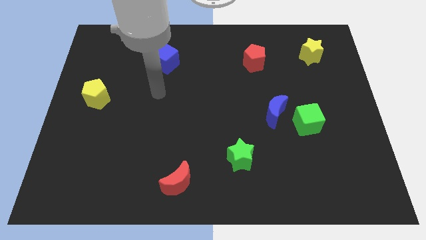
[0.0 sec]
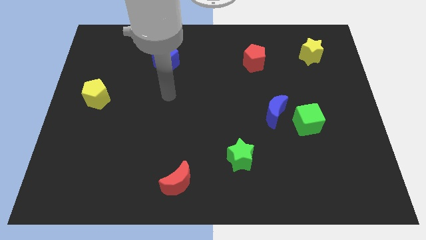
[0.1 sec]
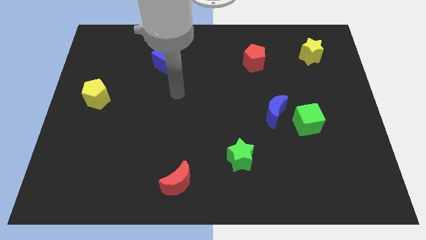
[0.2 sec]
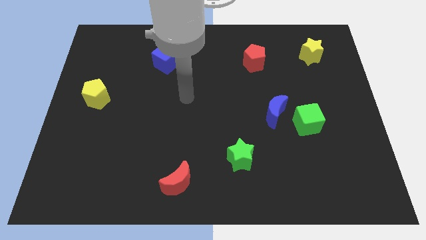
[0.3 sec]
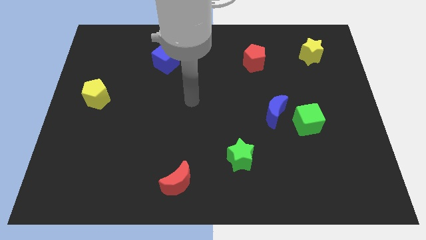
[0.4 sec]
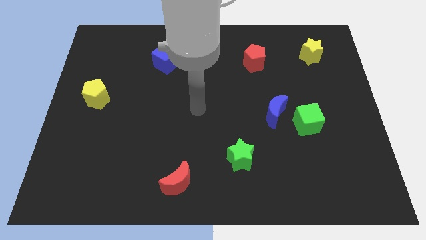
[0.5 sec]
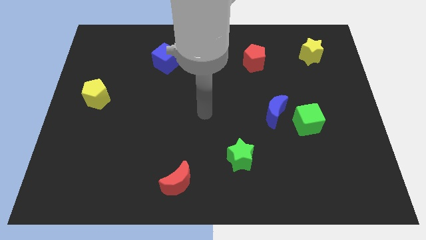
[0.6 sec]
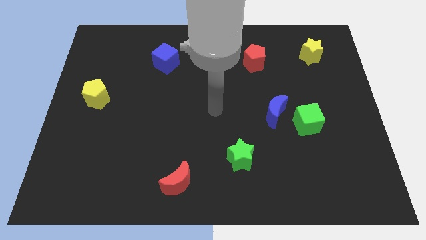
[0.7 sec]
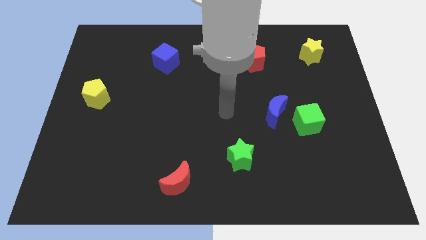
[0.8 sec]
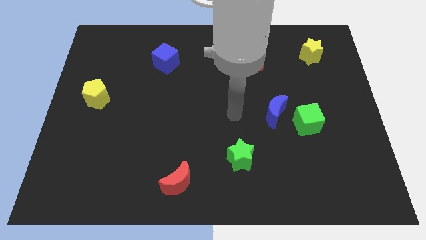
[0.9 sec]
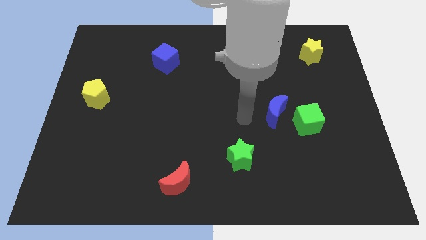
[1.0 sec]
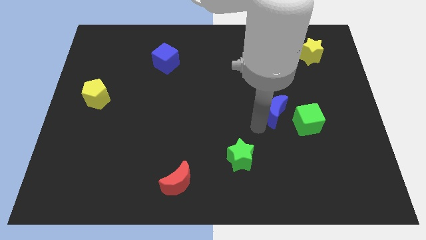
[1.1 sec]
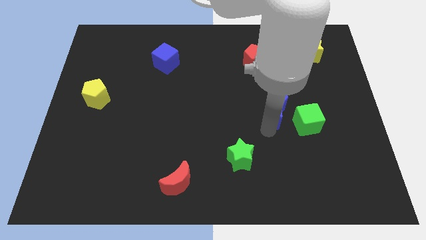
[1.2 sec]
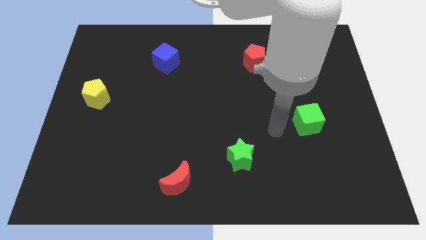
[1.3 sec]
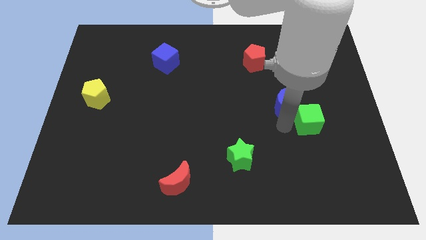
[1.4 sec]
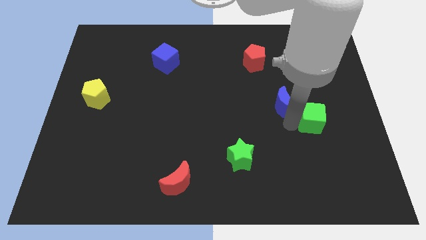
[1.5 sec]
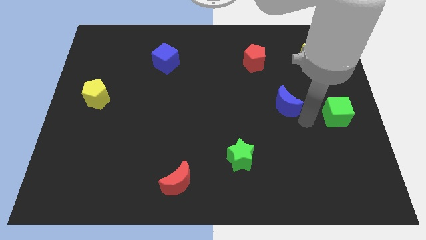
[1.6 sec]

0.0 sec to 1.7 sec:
separate the blue moon from the green cube

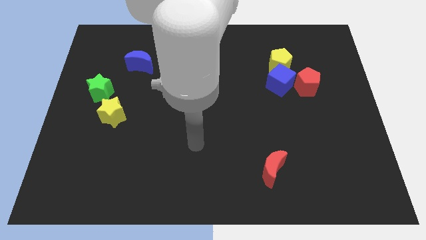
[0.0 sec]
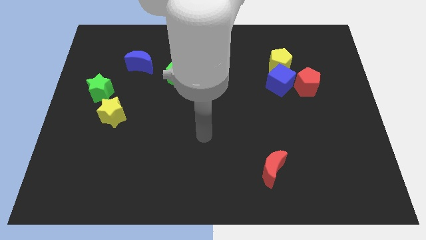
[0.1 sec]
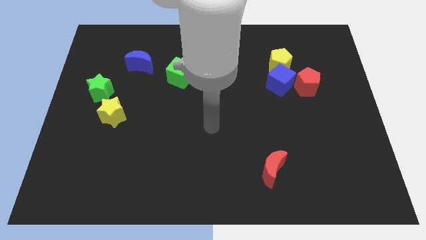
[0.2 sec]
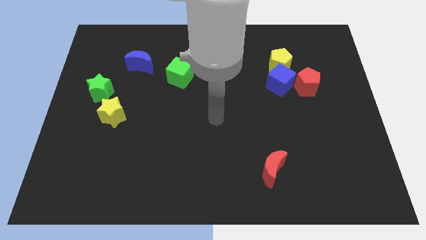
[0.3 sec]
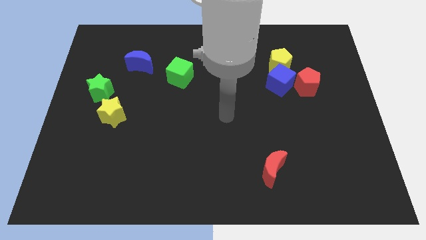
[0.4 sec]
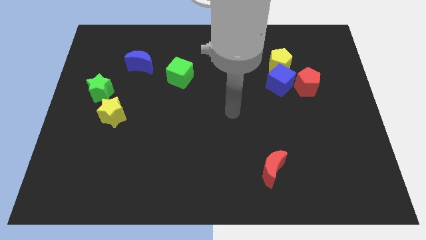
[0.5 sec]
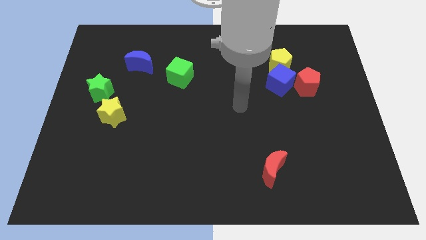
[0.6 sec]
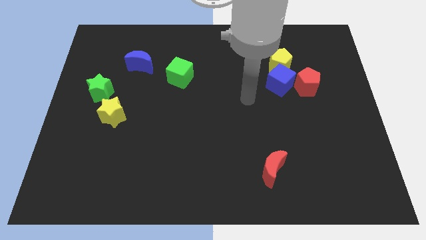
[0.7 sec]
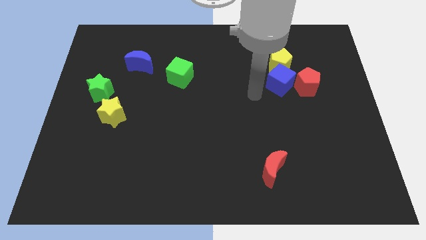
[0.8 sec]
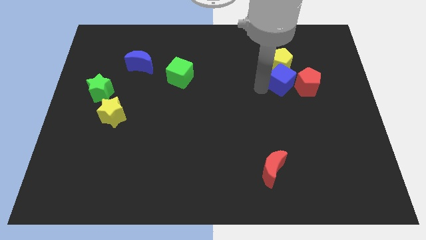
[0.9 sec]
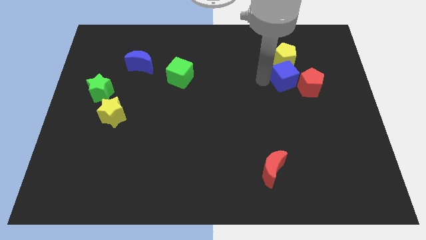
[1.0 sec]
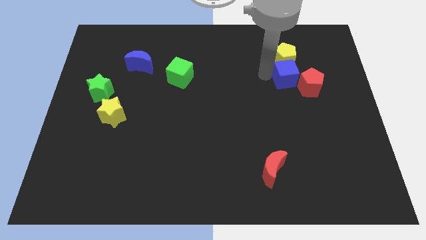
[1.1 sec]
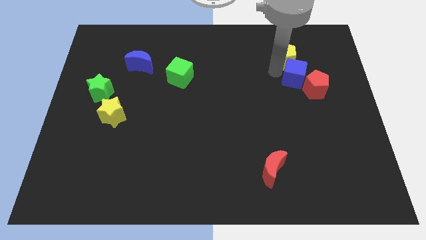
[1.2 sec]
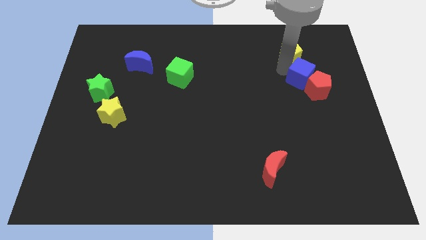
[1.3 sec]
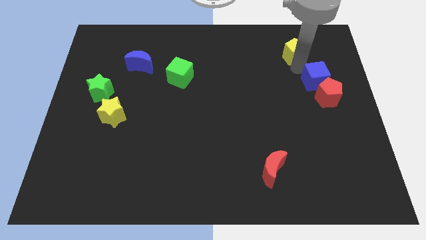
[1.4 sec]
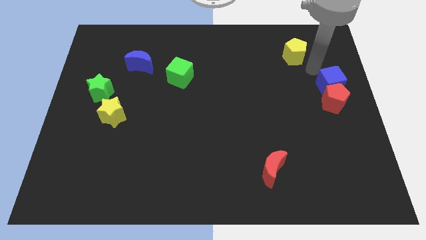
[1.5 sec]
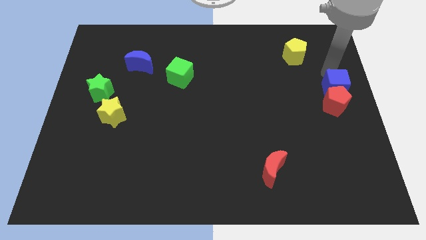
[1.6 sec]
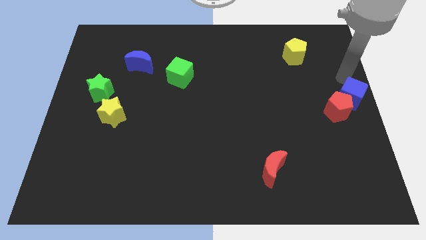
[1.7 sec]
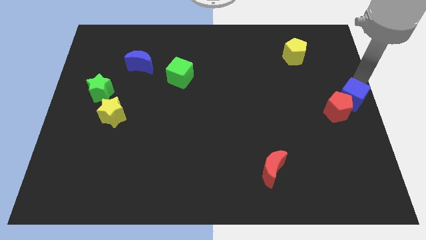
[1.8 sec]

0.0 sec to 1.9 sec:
pull the blue cube apart from the yellow pentagon and red pentagon

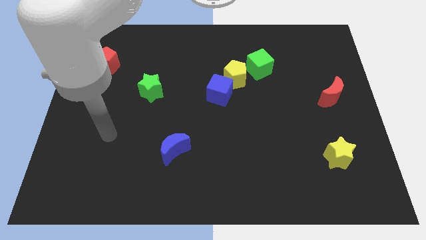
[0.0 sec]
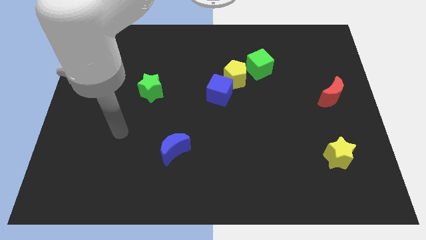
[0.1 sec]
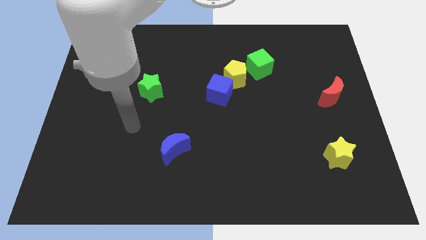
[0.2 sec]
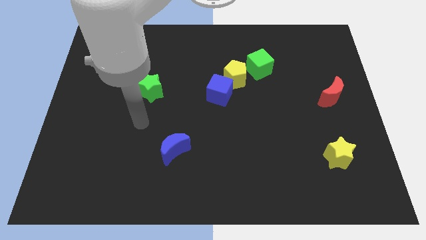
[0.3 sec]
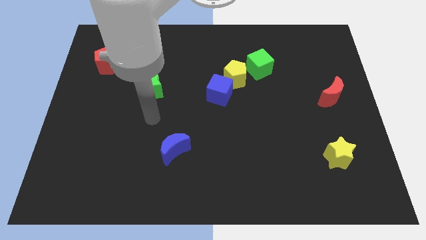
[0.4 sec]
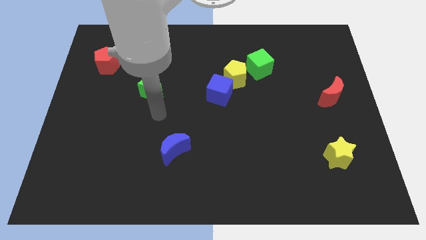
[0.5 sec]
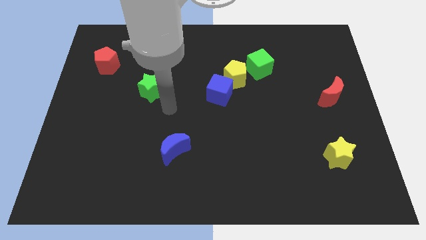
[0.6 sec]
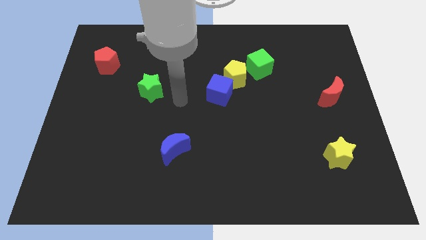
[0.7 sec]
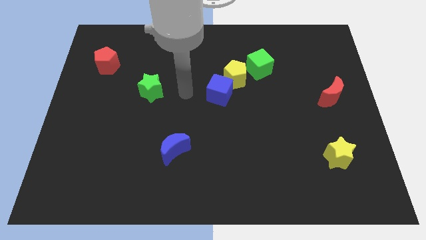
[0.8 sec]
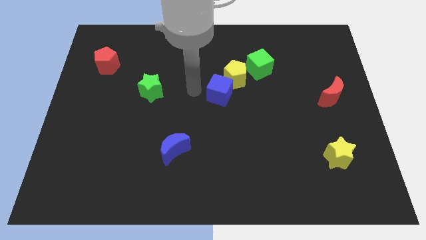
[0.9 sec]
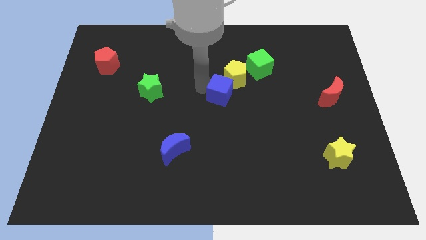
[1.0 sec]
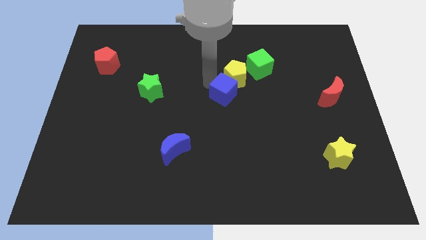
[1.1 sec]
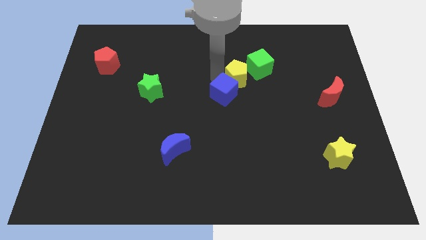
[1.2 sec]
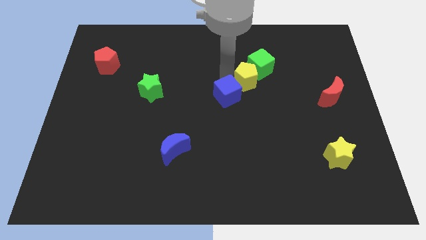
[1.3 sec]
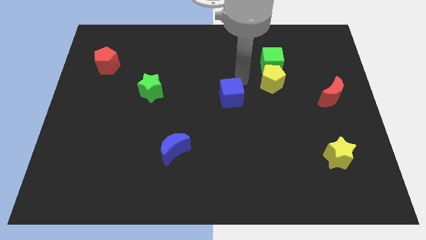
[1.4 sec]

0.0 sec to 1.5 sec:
move the blue cube away from the yellow pentagon

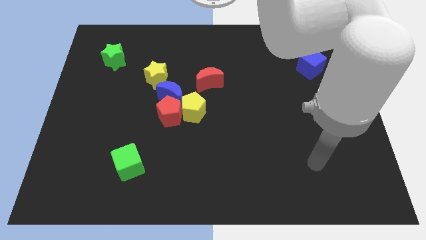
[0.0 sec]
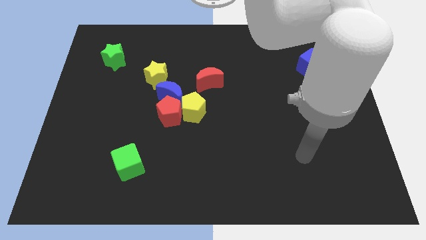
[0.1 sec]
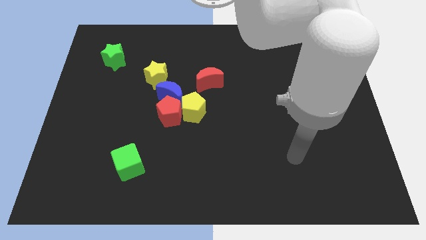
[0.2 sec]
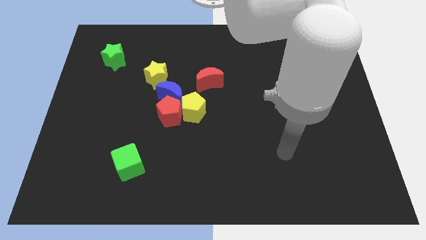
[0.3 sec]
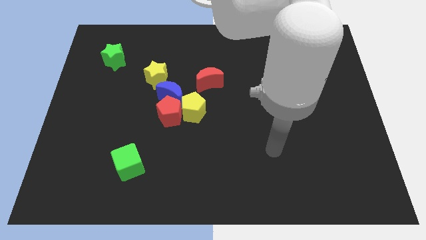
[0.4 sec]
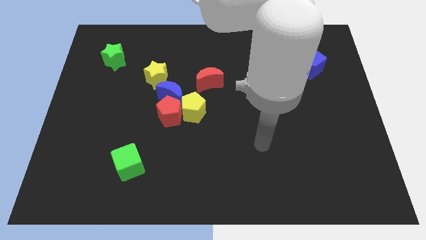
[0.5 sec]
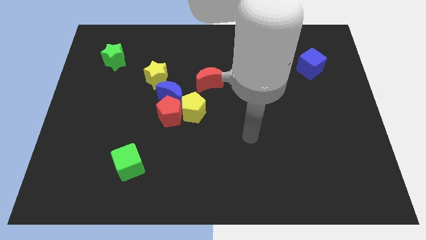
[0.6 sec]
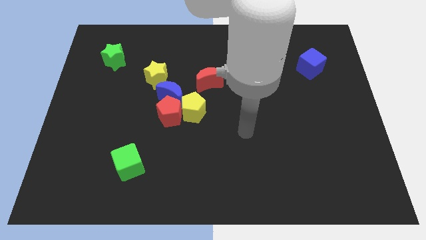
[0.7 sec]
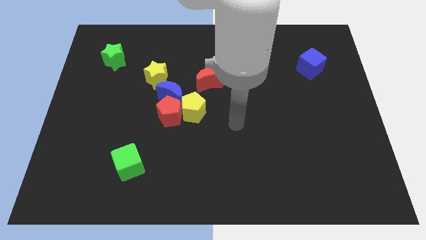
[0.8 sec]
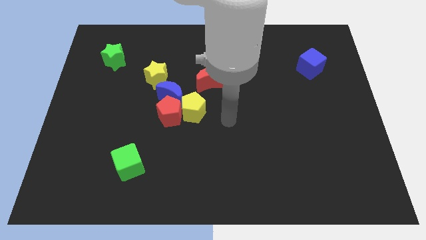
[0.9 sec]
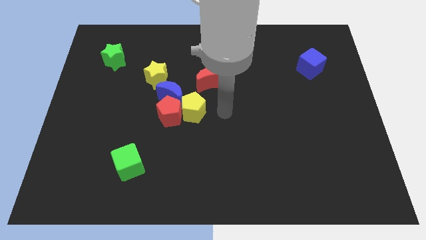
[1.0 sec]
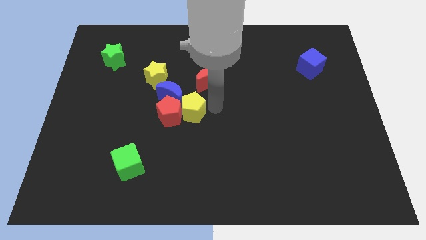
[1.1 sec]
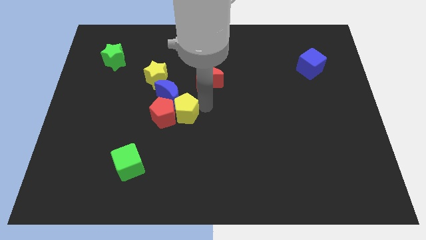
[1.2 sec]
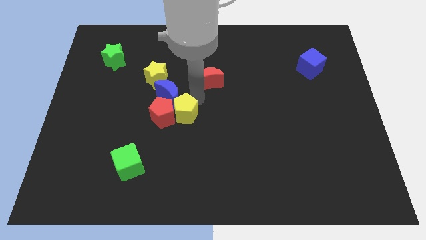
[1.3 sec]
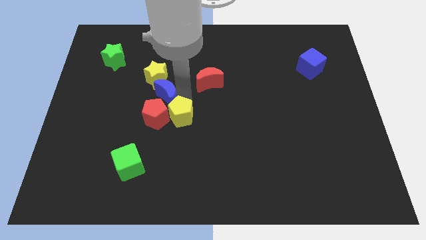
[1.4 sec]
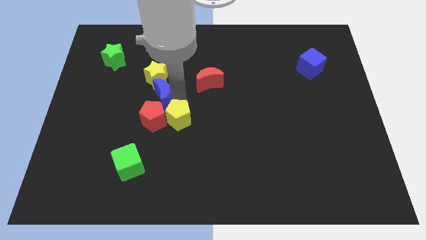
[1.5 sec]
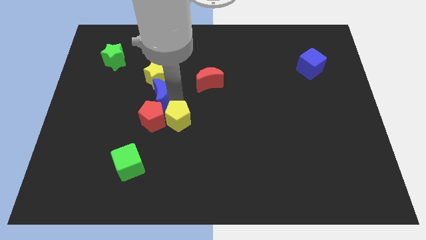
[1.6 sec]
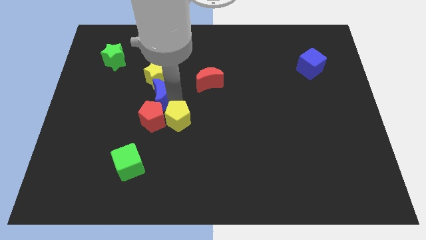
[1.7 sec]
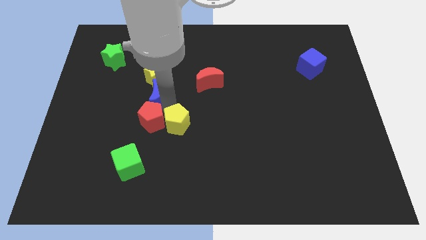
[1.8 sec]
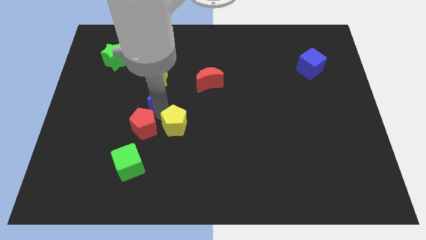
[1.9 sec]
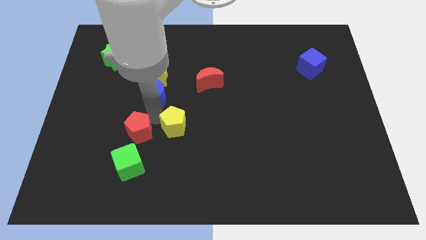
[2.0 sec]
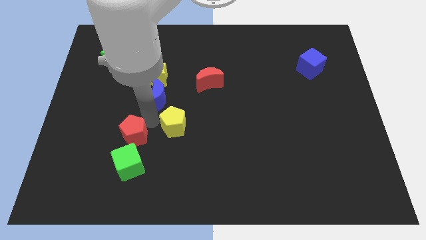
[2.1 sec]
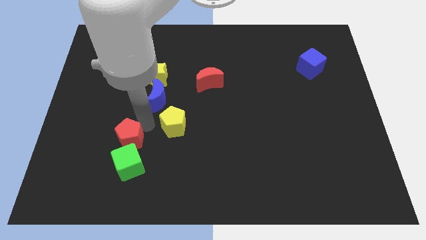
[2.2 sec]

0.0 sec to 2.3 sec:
move the red pentagon away from the blue moon and yellow pentagon

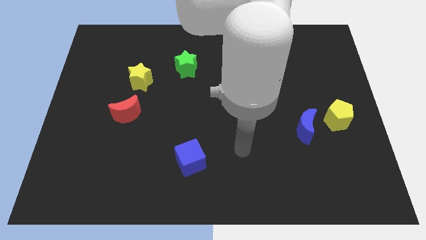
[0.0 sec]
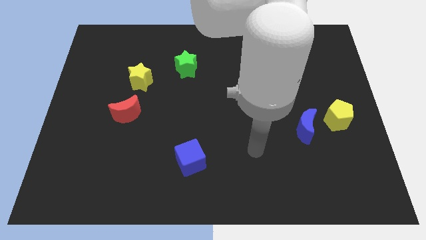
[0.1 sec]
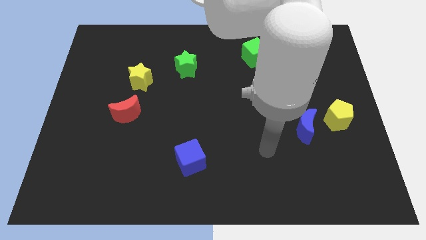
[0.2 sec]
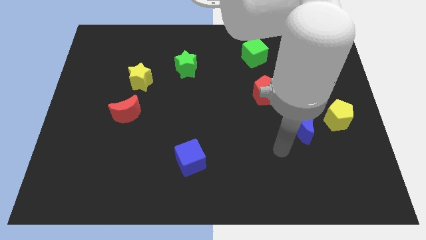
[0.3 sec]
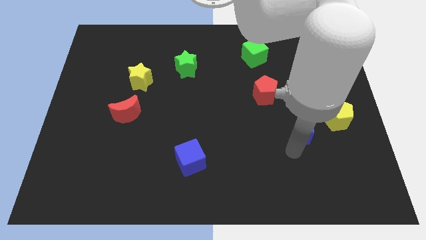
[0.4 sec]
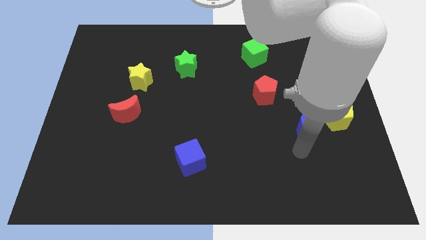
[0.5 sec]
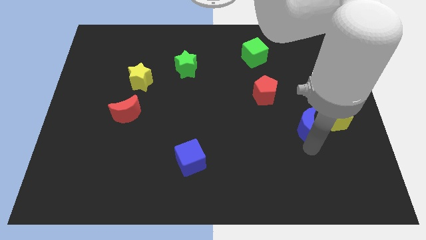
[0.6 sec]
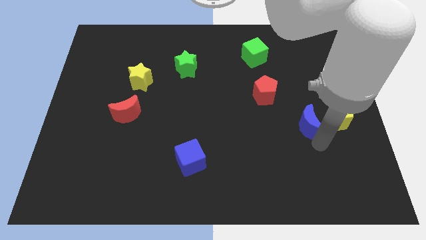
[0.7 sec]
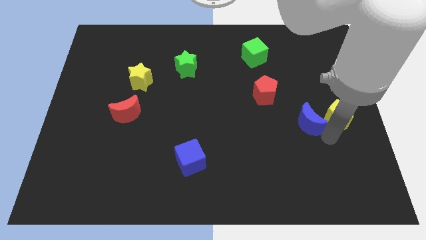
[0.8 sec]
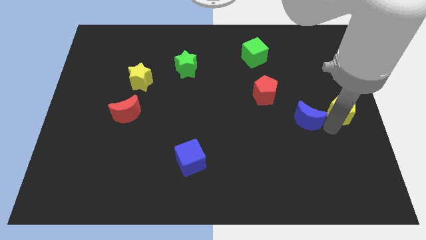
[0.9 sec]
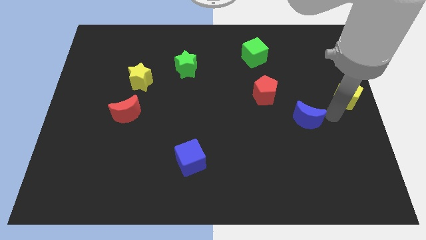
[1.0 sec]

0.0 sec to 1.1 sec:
pull the blue moon apart from the yellow pentagon

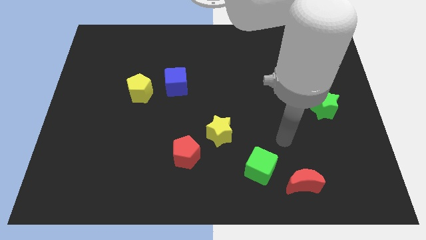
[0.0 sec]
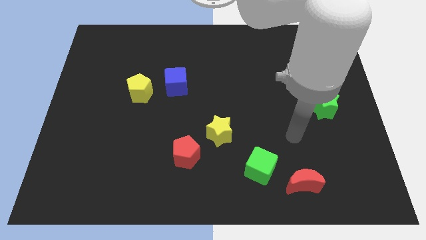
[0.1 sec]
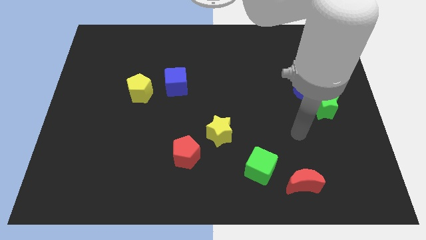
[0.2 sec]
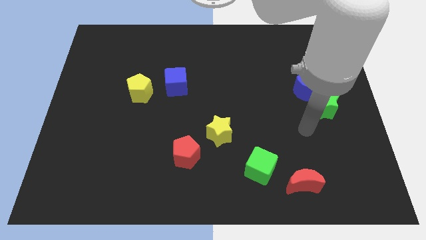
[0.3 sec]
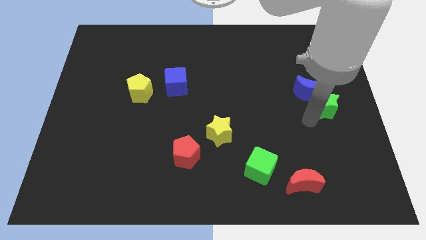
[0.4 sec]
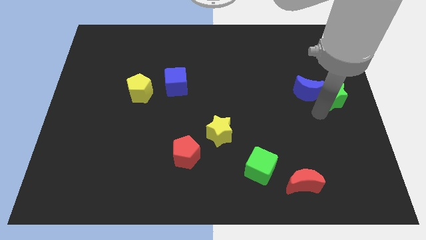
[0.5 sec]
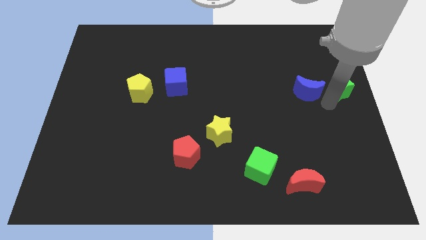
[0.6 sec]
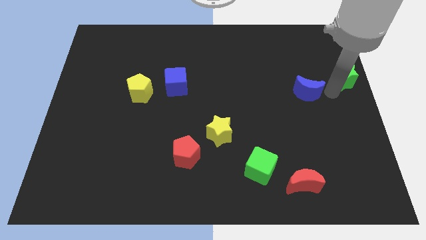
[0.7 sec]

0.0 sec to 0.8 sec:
move the blue moon away from the green star
